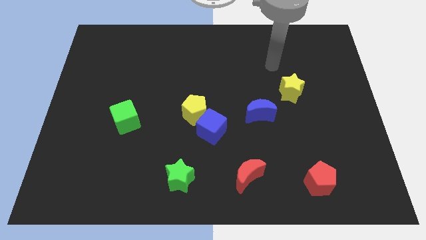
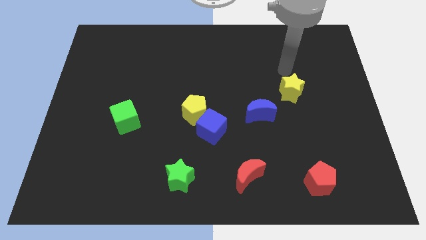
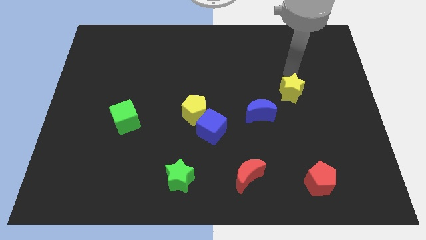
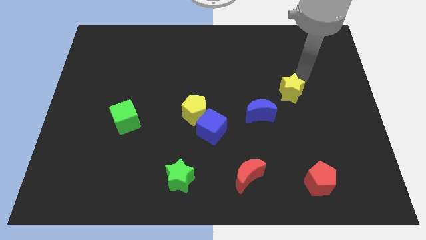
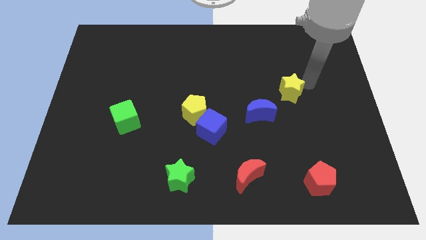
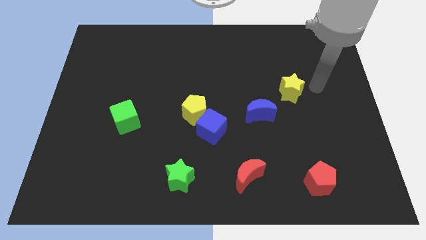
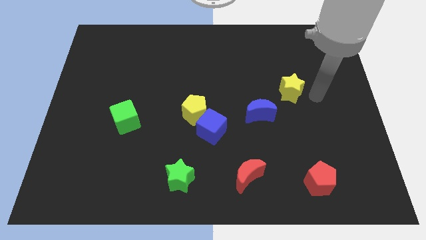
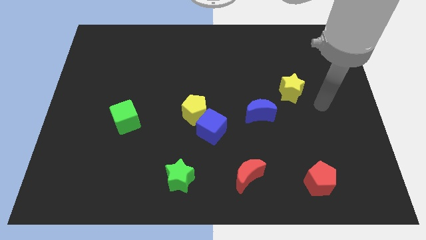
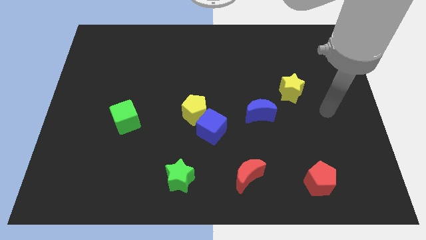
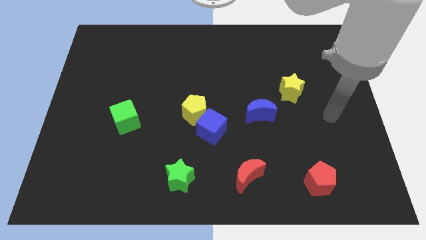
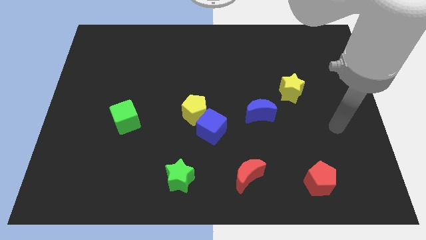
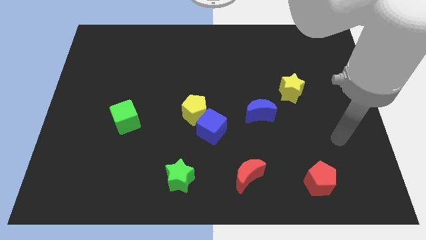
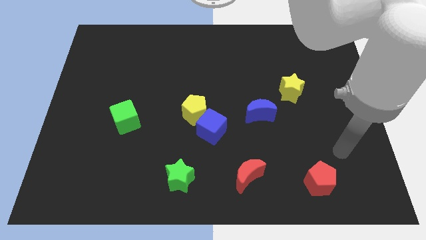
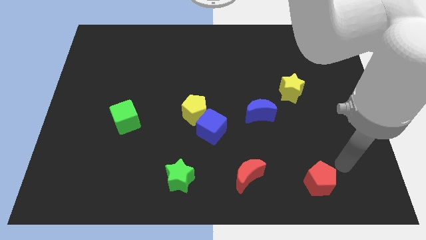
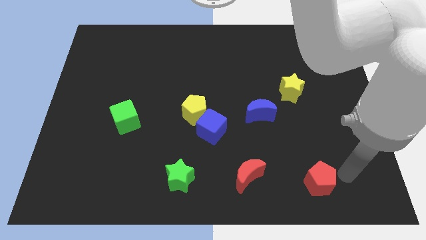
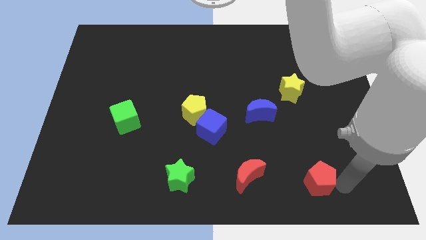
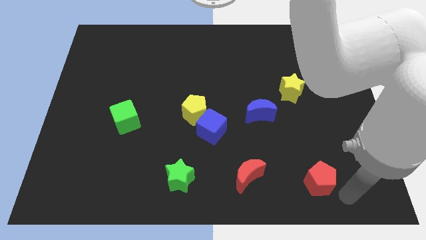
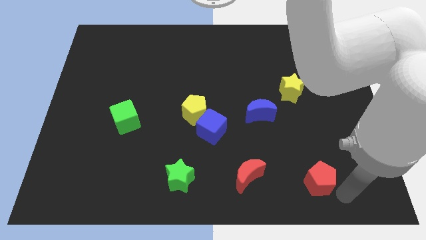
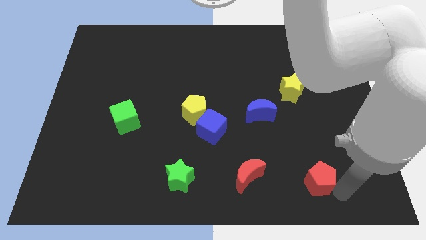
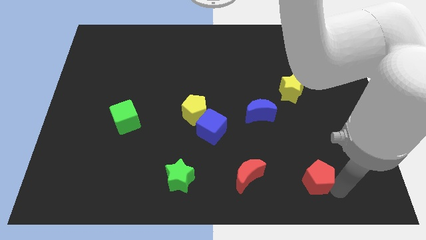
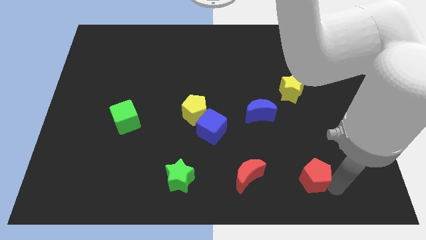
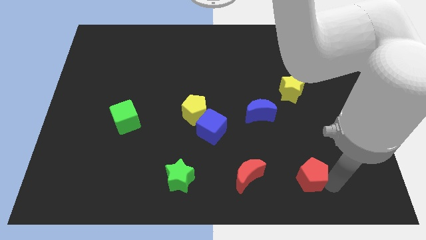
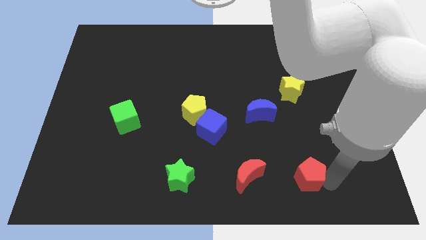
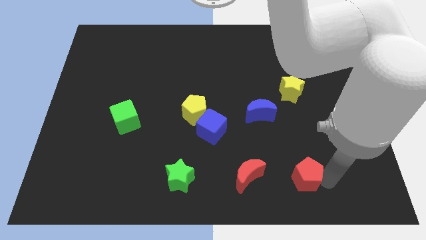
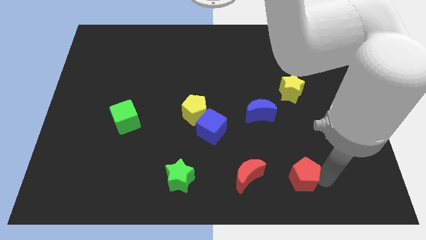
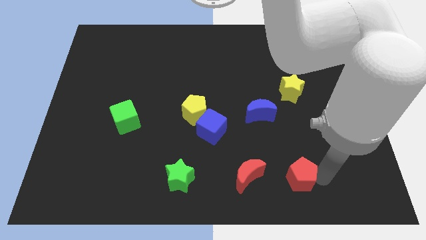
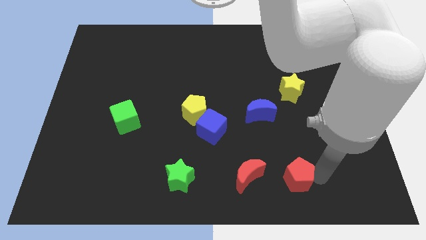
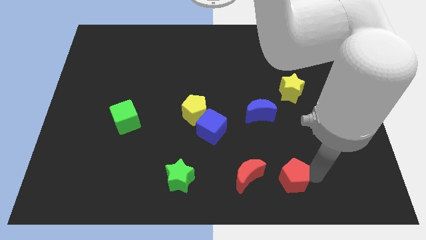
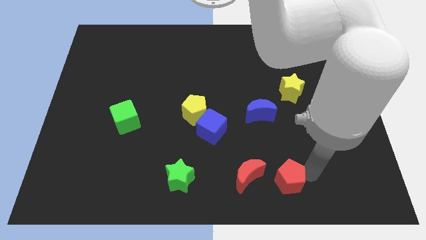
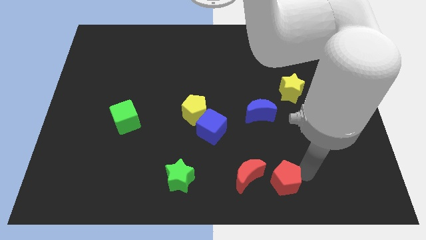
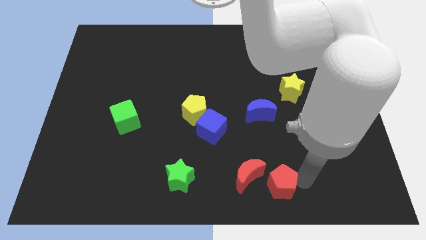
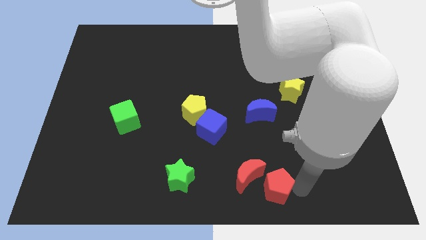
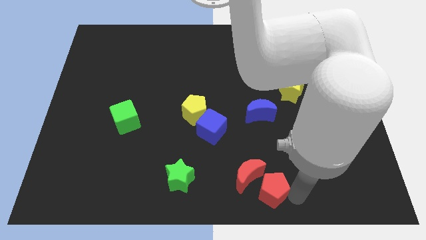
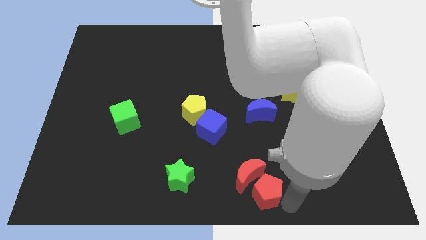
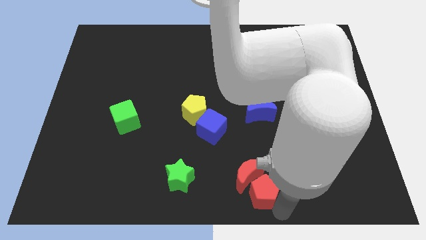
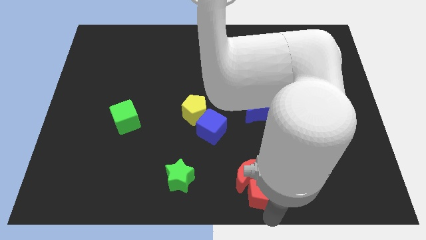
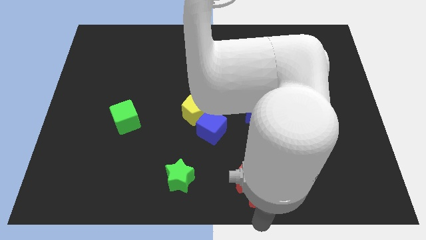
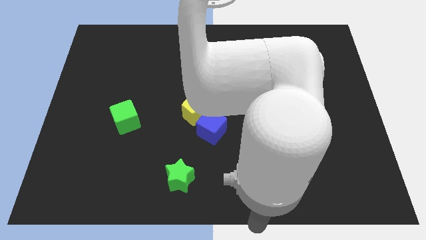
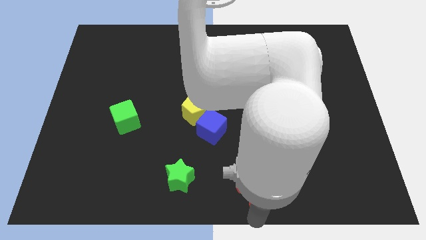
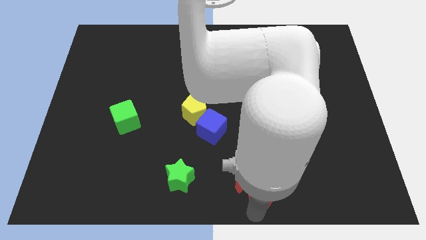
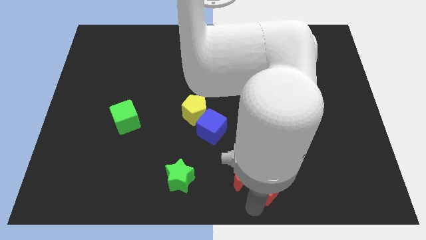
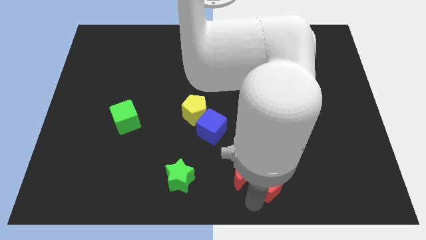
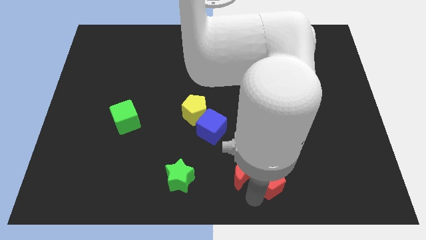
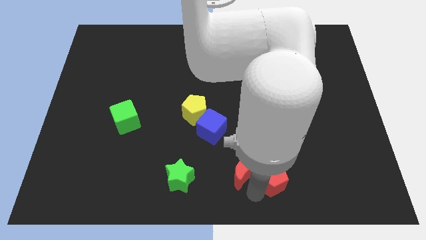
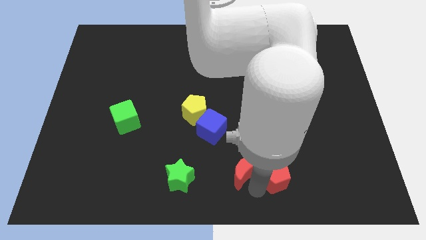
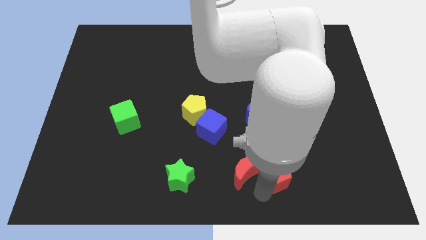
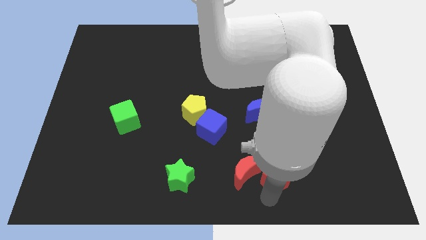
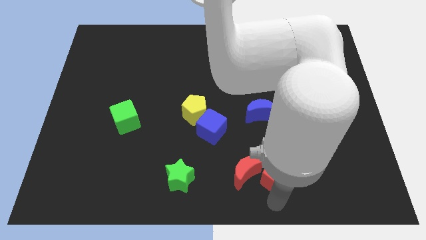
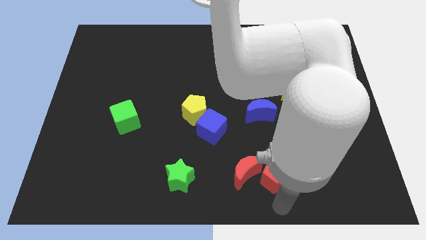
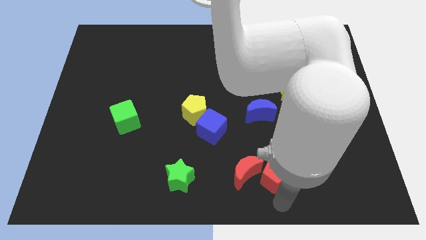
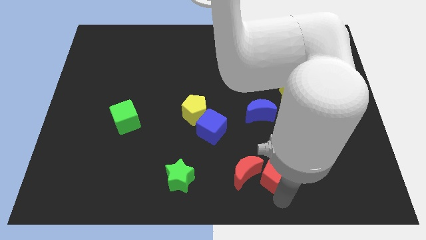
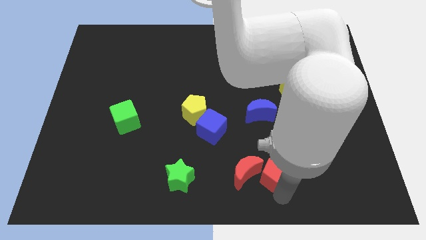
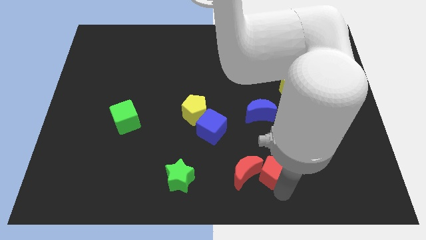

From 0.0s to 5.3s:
slightly push the red pentagon diagonally up and left

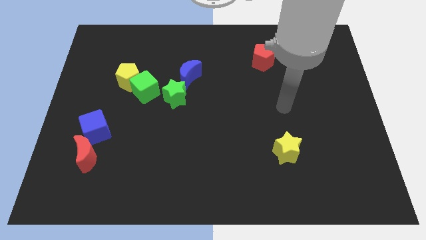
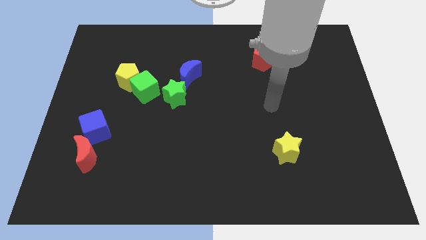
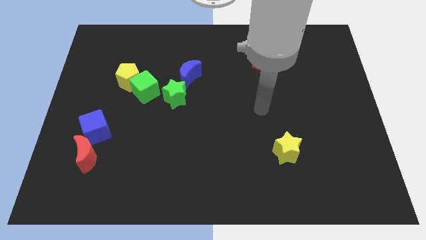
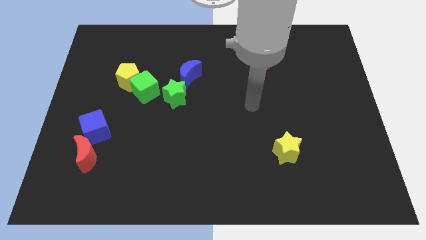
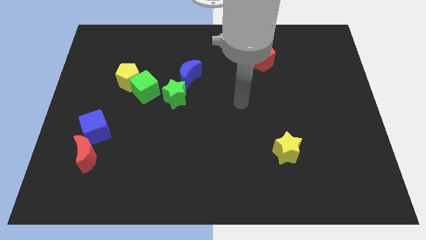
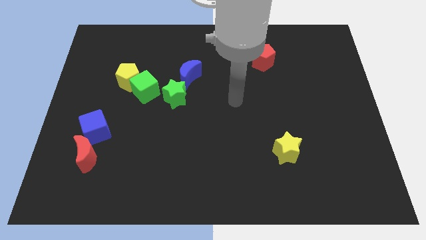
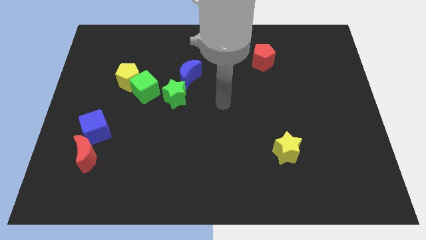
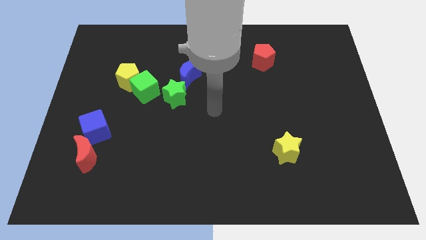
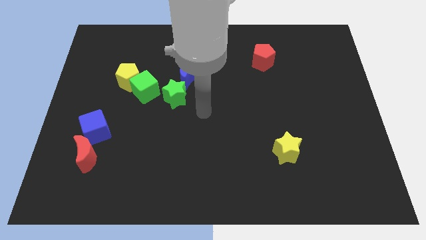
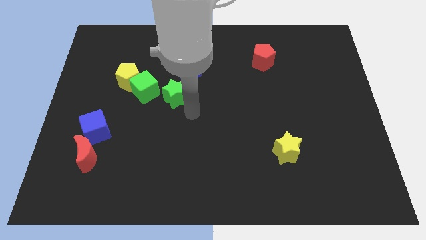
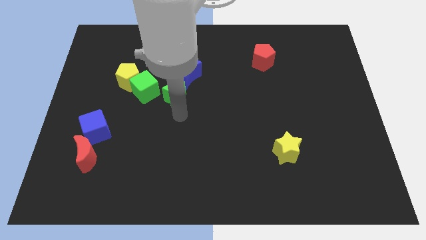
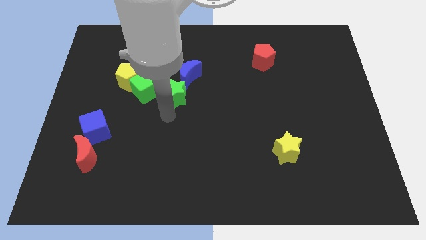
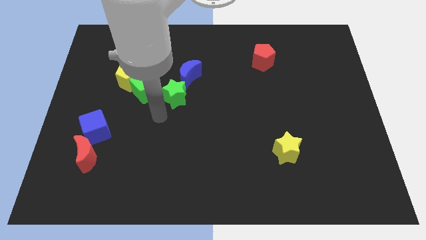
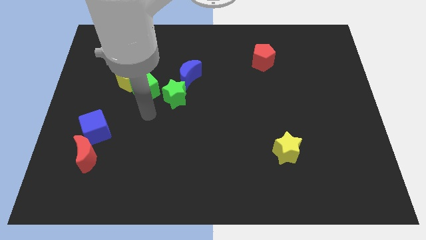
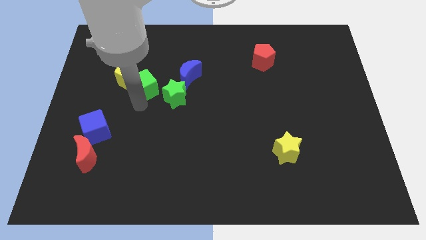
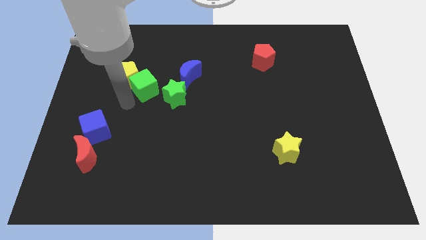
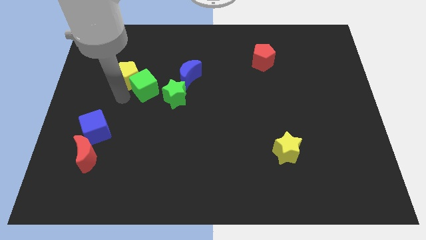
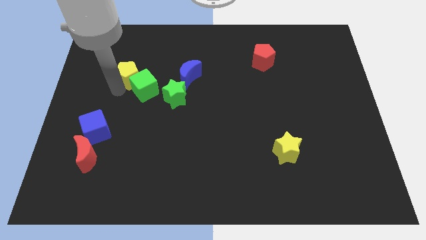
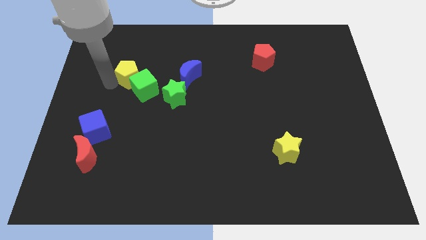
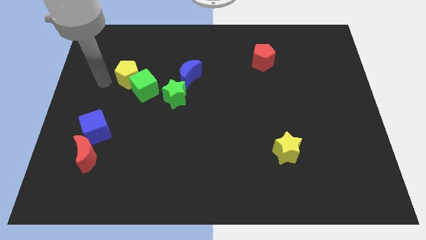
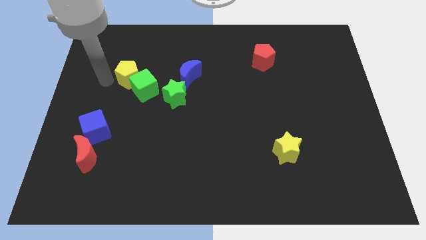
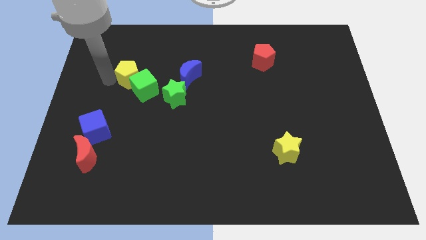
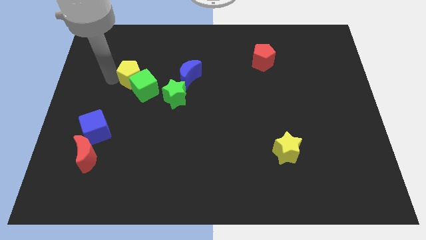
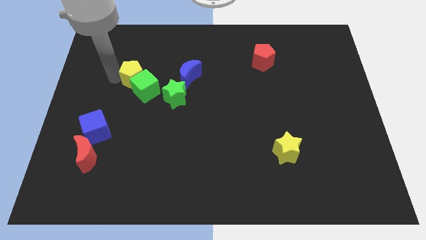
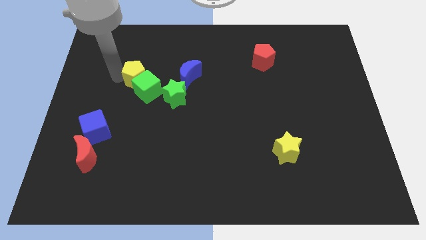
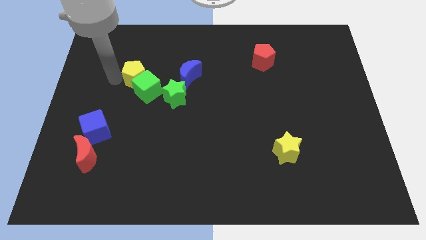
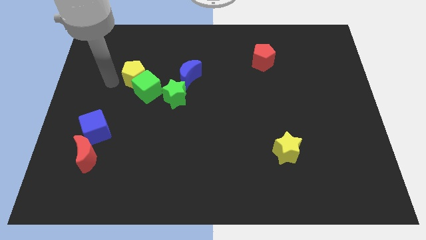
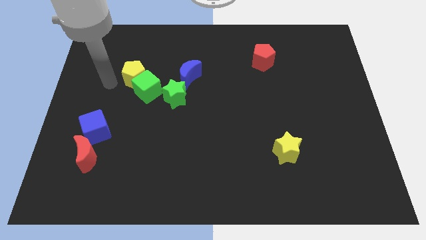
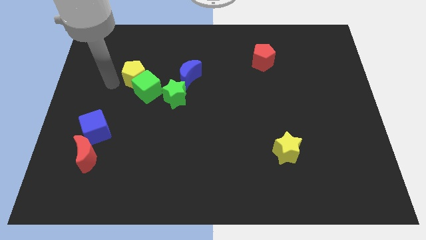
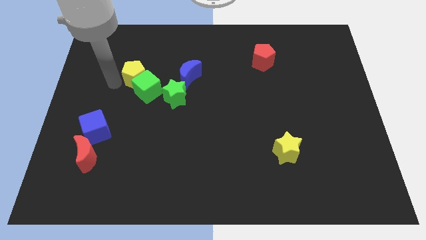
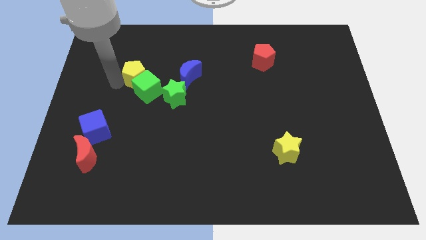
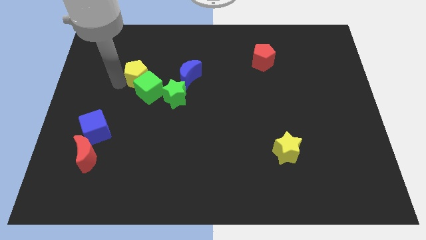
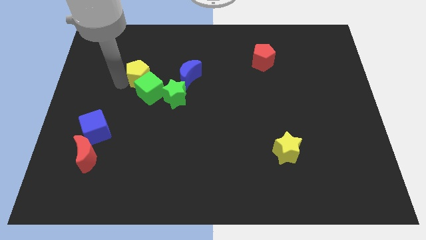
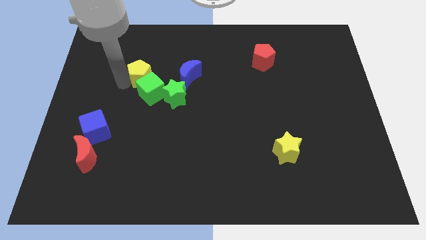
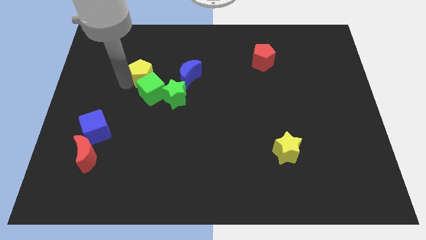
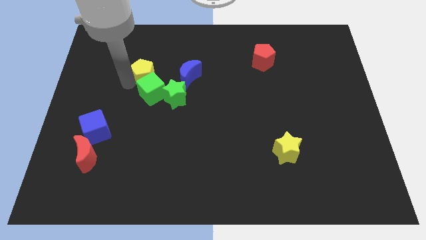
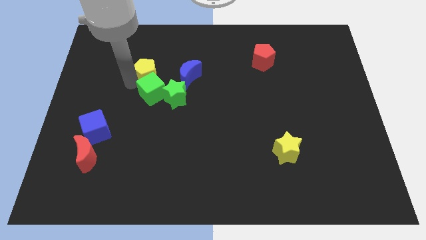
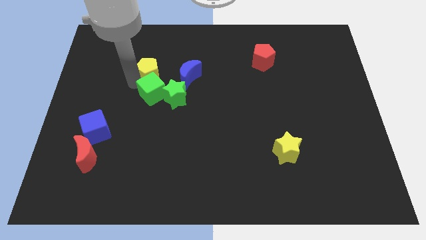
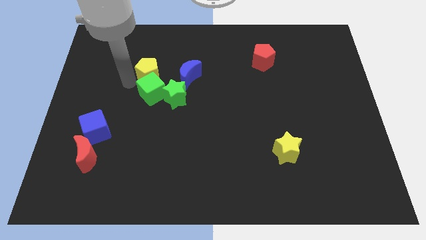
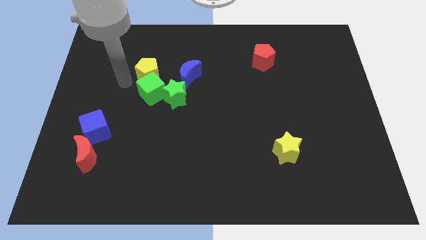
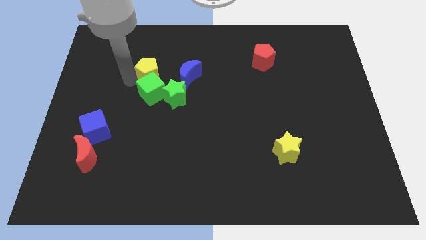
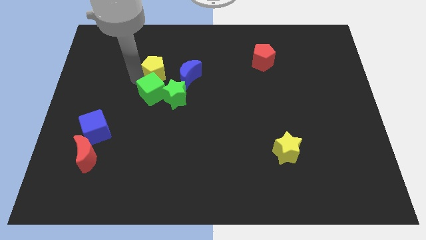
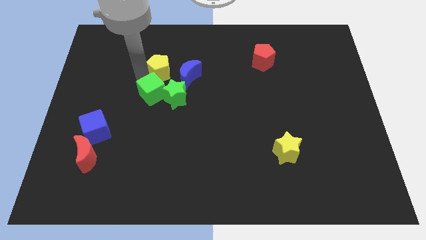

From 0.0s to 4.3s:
slide the yellow pentagon slightly to the right
